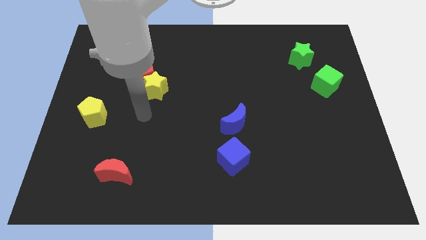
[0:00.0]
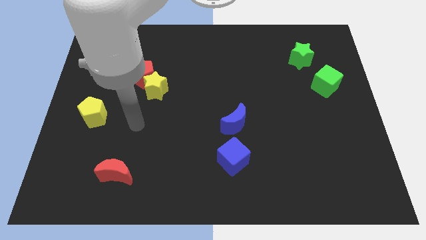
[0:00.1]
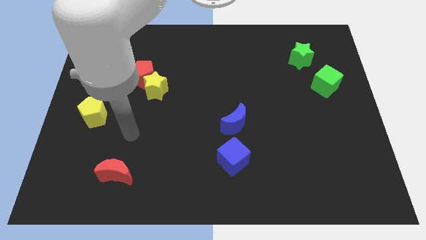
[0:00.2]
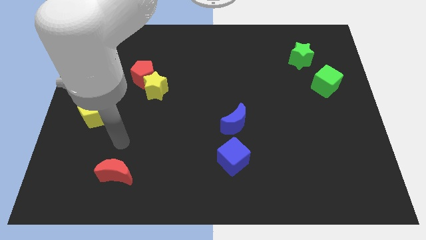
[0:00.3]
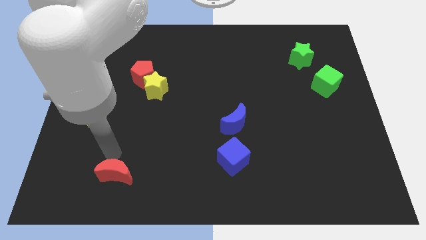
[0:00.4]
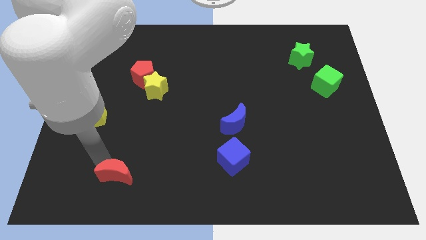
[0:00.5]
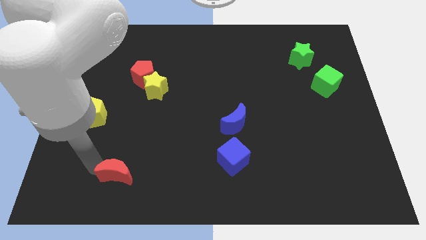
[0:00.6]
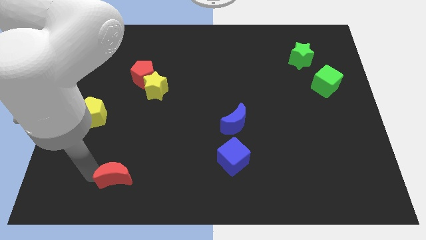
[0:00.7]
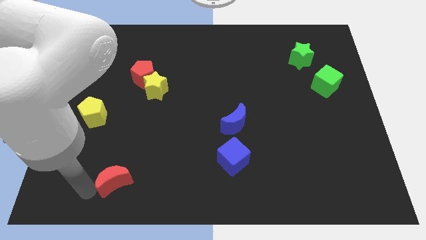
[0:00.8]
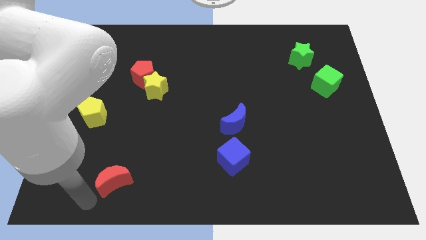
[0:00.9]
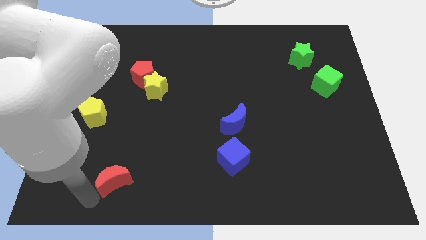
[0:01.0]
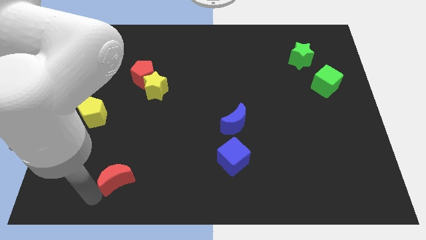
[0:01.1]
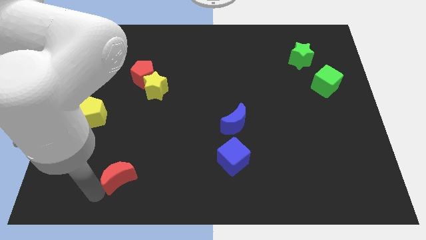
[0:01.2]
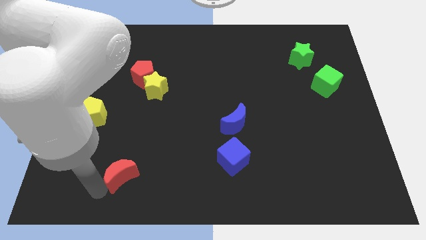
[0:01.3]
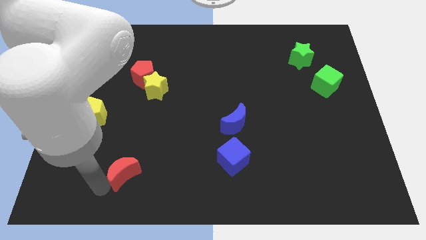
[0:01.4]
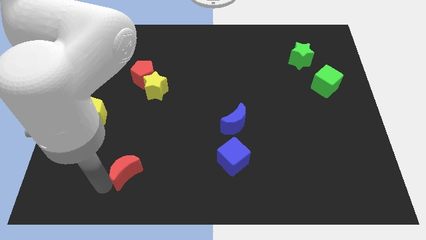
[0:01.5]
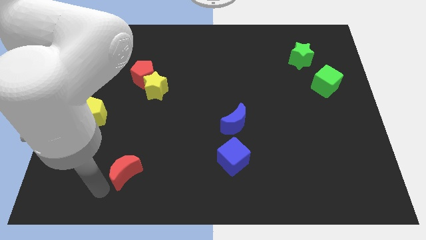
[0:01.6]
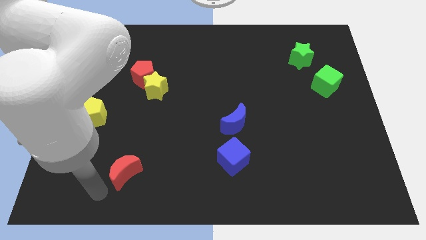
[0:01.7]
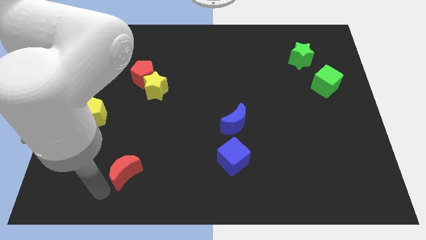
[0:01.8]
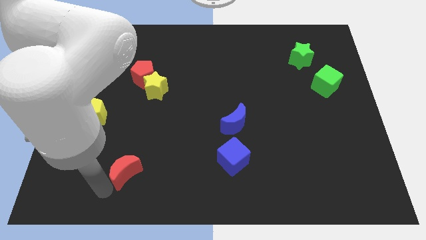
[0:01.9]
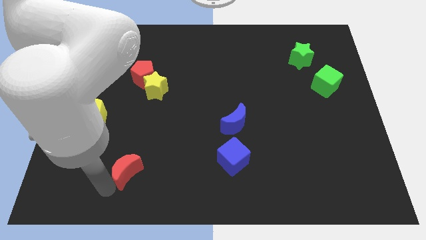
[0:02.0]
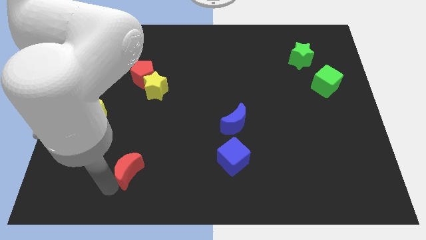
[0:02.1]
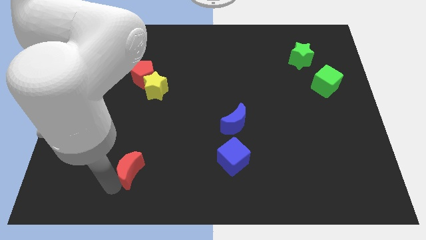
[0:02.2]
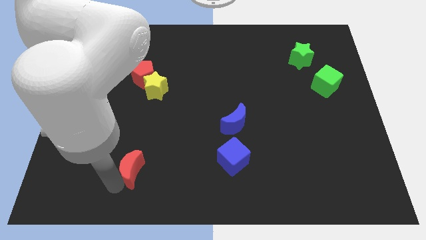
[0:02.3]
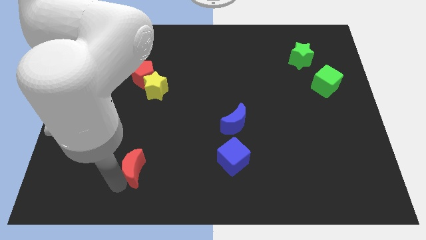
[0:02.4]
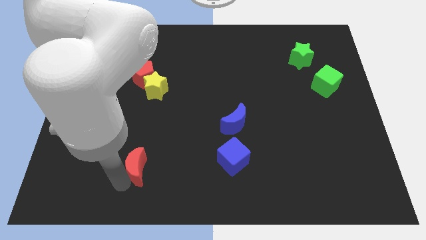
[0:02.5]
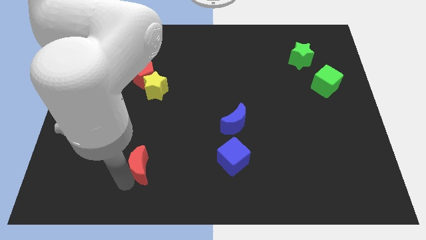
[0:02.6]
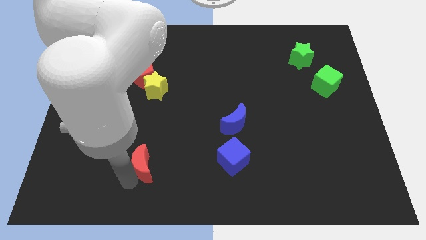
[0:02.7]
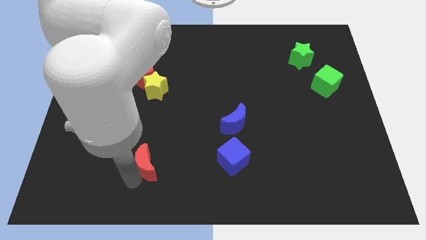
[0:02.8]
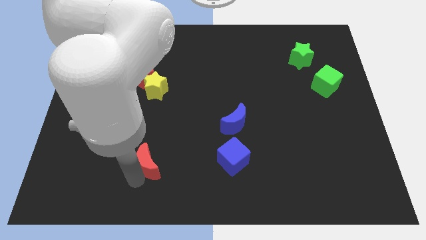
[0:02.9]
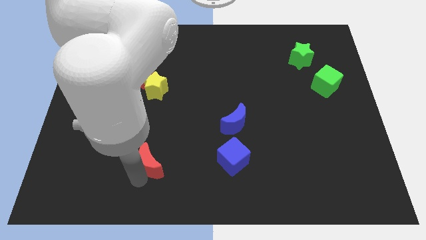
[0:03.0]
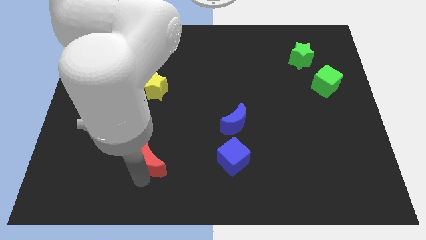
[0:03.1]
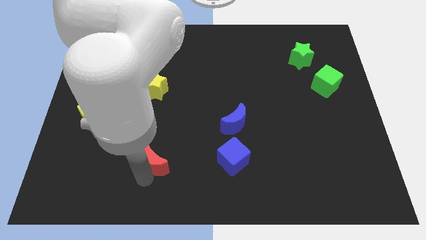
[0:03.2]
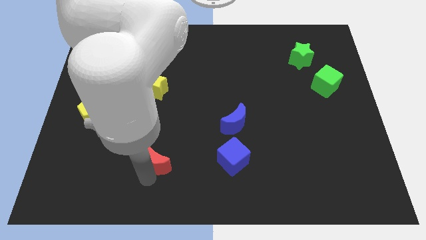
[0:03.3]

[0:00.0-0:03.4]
move the red moon a little upwards and to the right

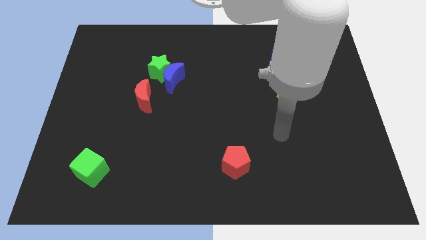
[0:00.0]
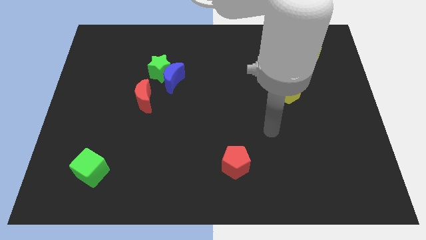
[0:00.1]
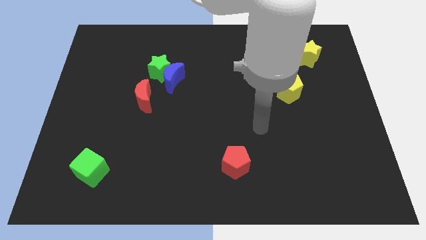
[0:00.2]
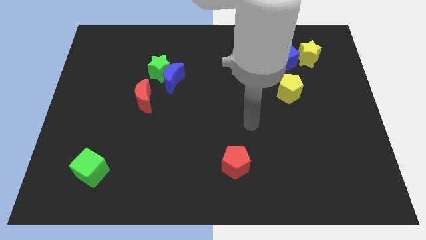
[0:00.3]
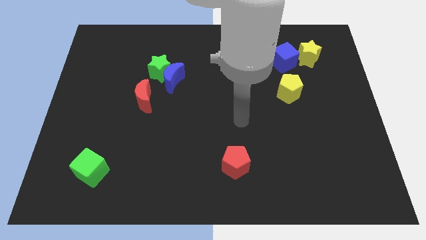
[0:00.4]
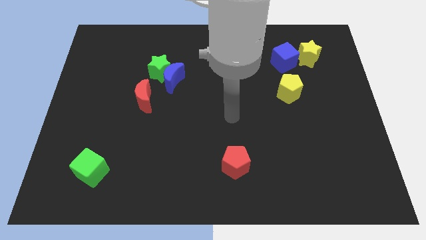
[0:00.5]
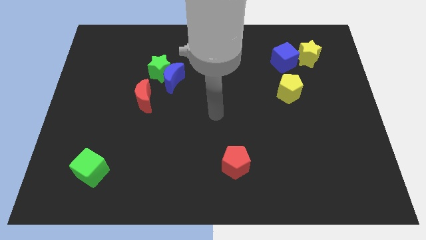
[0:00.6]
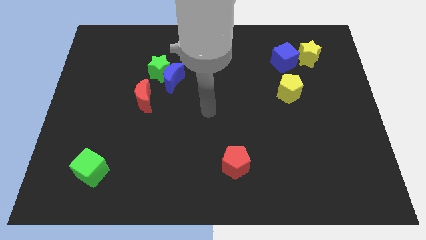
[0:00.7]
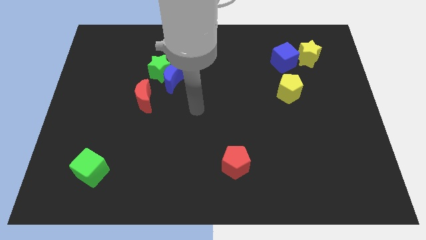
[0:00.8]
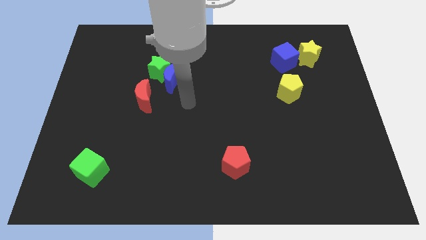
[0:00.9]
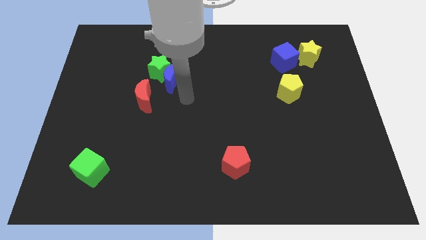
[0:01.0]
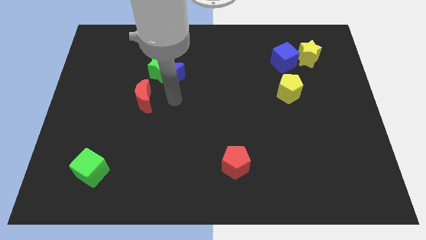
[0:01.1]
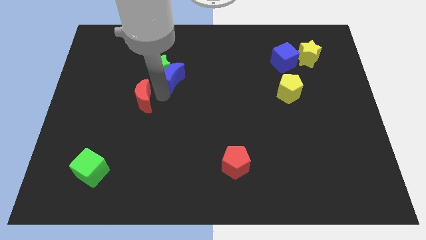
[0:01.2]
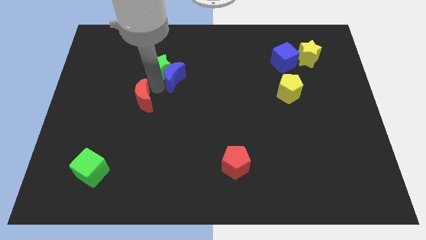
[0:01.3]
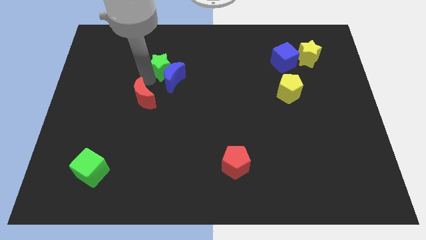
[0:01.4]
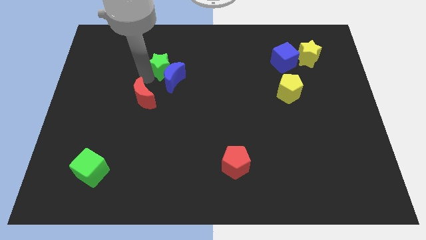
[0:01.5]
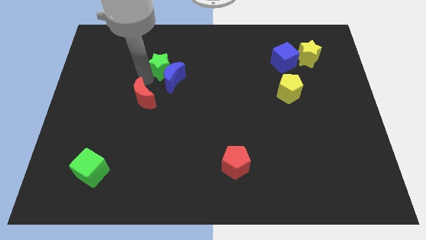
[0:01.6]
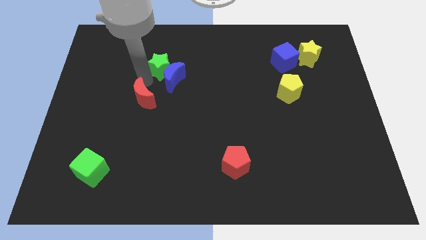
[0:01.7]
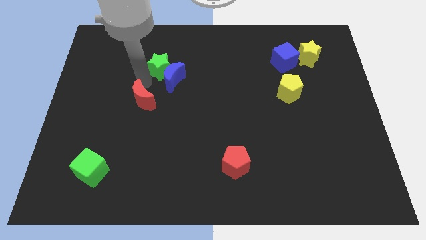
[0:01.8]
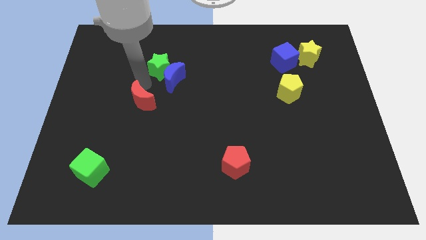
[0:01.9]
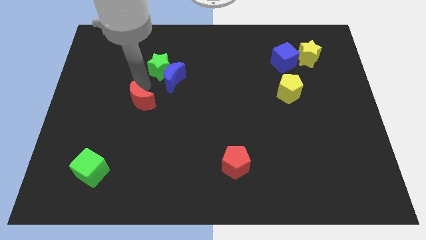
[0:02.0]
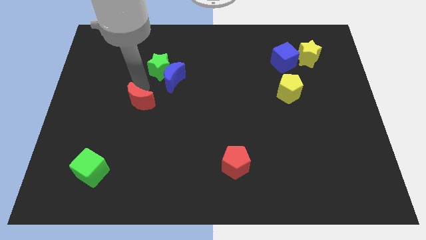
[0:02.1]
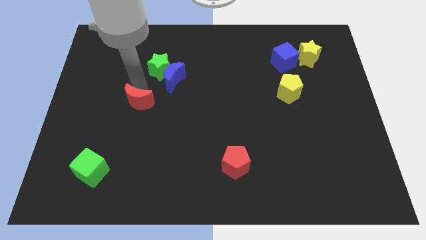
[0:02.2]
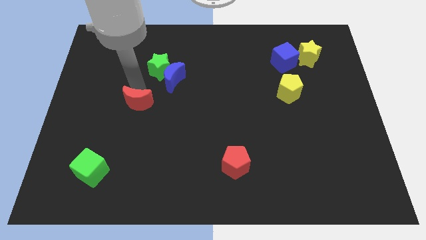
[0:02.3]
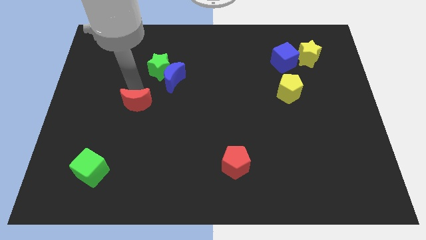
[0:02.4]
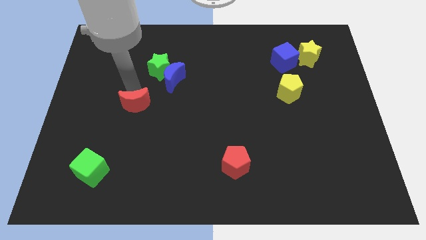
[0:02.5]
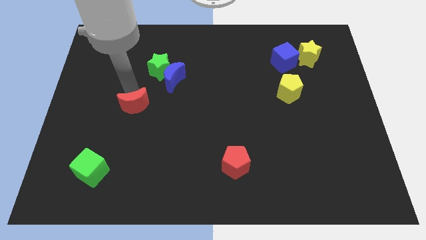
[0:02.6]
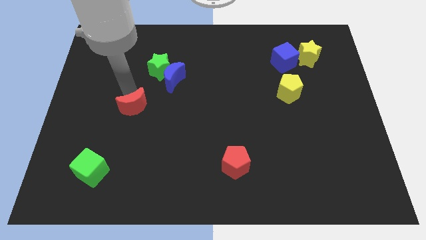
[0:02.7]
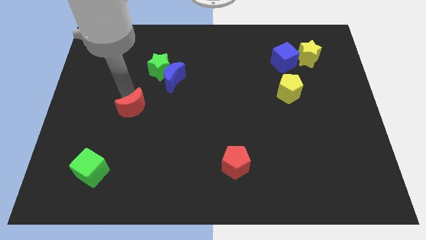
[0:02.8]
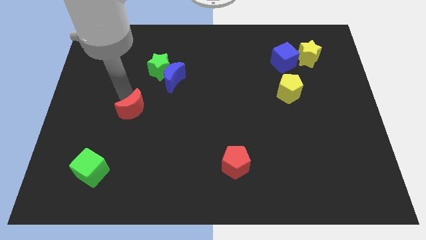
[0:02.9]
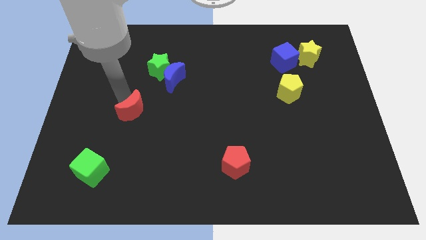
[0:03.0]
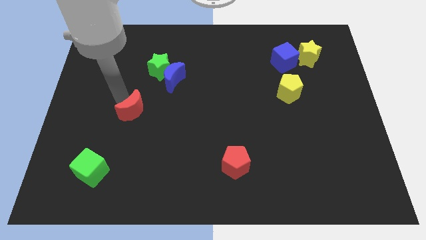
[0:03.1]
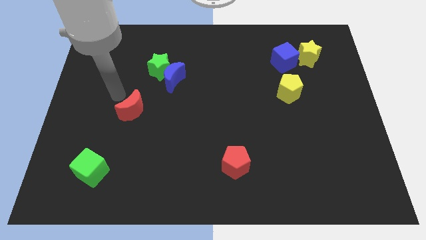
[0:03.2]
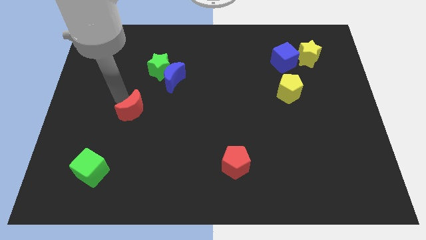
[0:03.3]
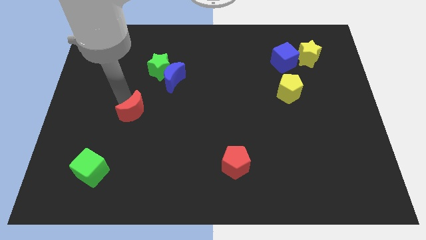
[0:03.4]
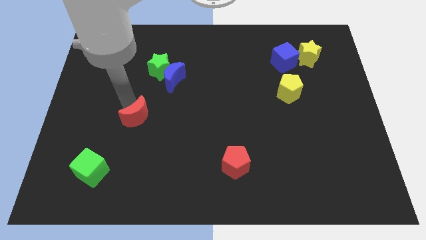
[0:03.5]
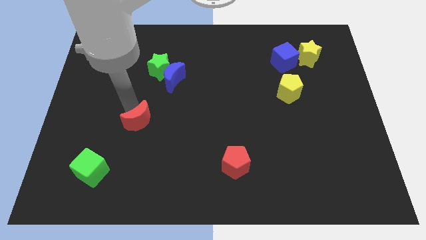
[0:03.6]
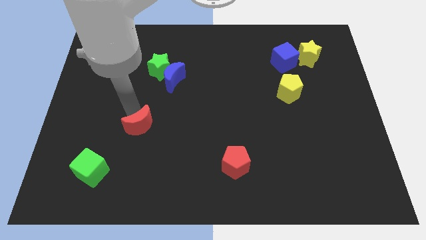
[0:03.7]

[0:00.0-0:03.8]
move the red moon somewhat downwards

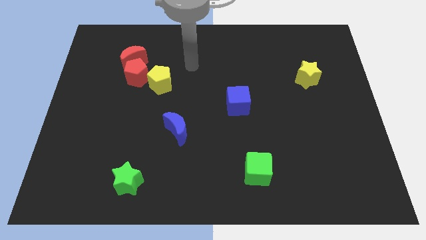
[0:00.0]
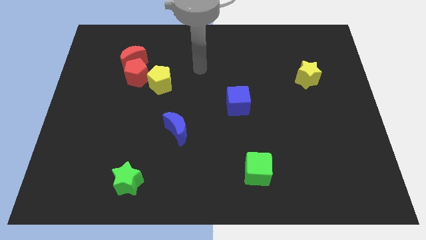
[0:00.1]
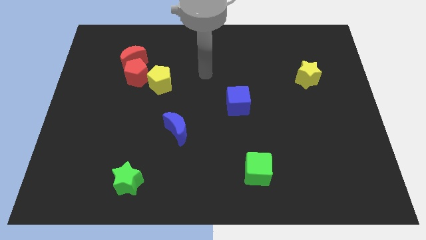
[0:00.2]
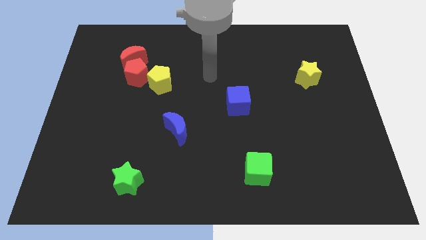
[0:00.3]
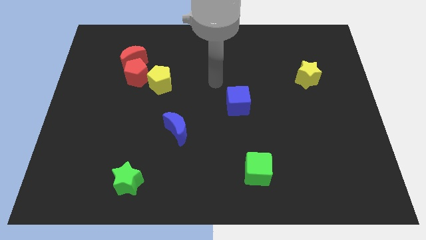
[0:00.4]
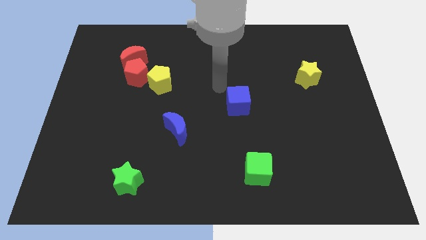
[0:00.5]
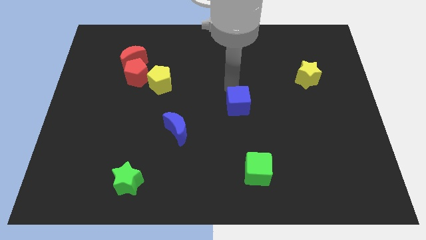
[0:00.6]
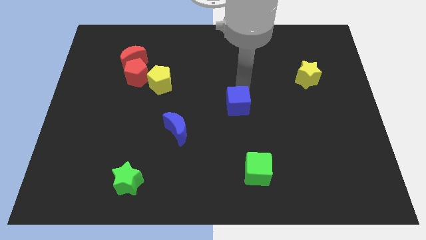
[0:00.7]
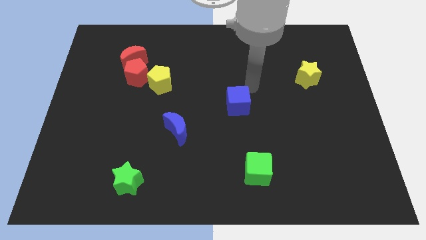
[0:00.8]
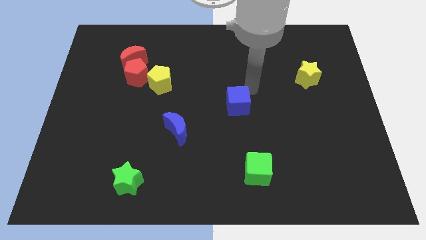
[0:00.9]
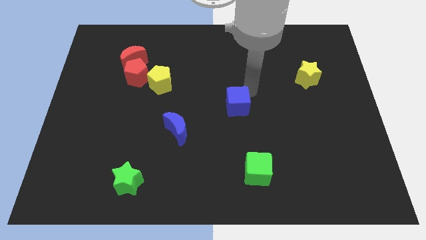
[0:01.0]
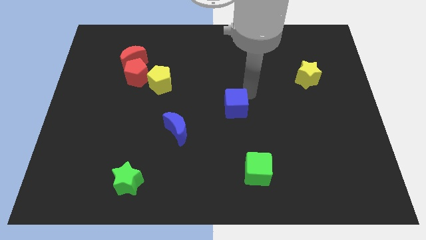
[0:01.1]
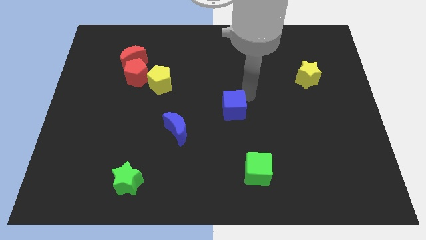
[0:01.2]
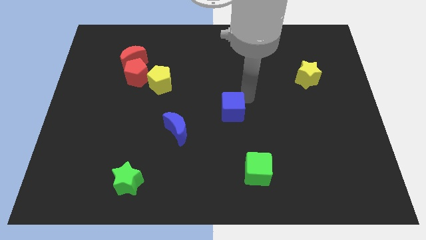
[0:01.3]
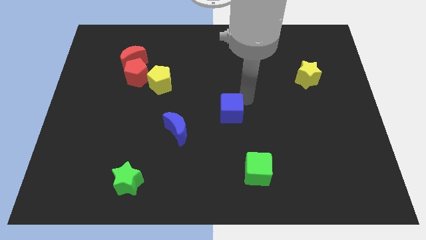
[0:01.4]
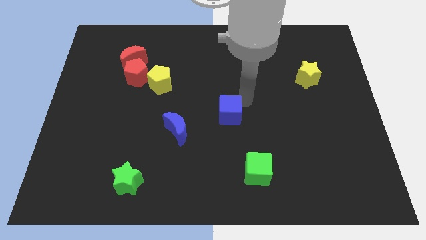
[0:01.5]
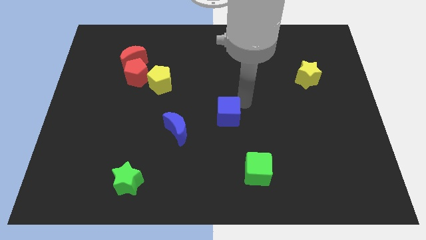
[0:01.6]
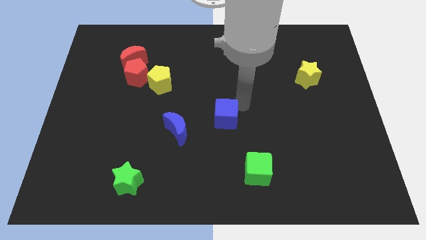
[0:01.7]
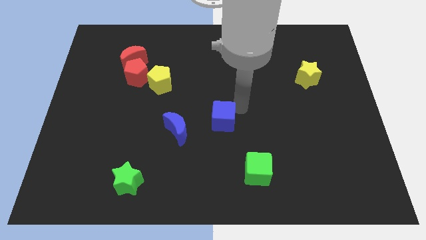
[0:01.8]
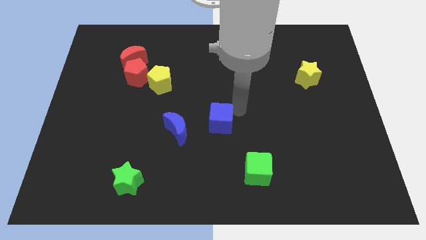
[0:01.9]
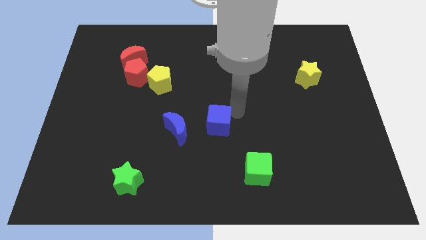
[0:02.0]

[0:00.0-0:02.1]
slide the blue cube a little bit down and then left
